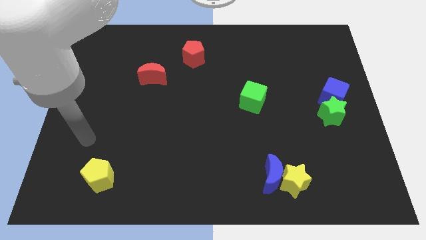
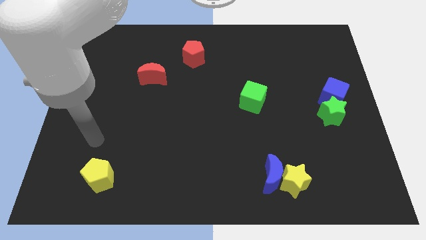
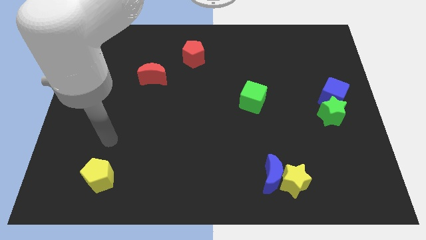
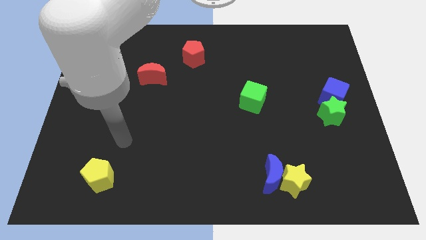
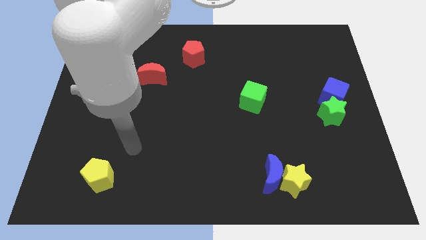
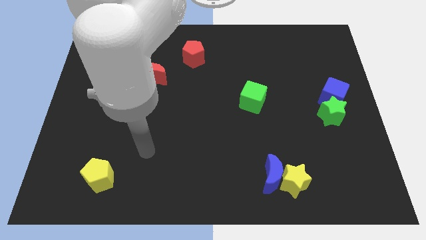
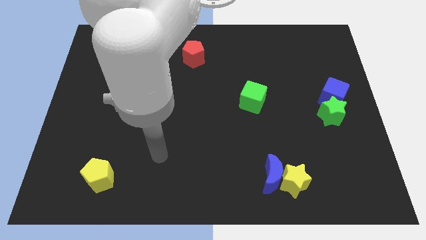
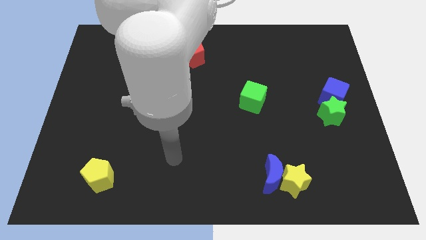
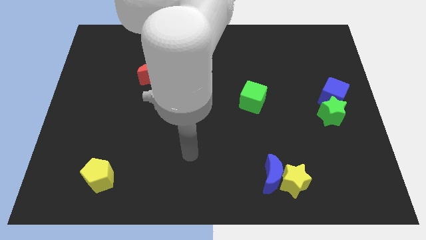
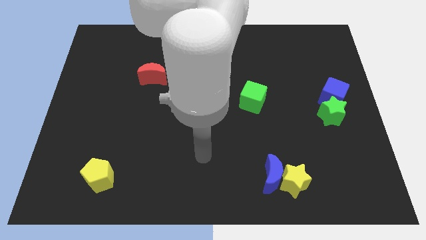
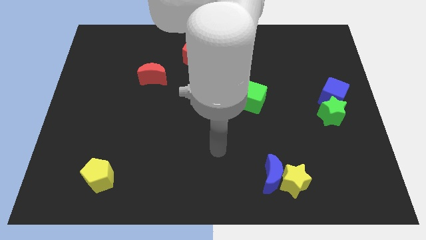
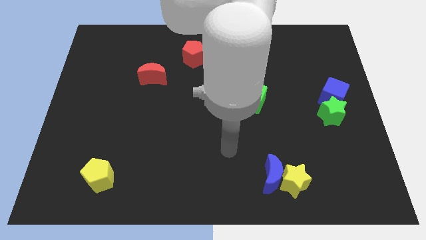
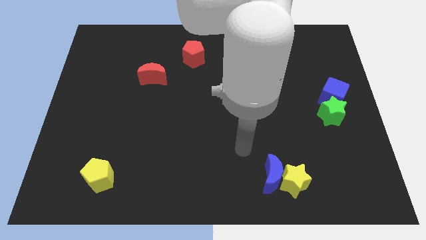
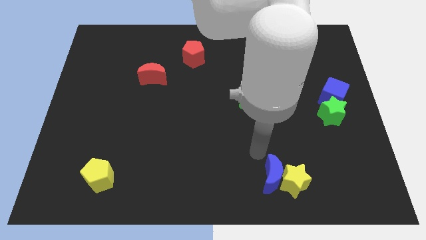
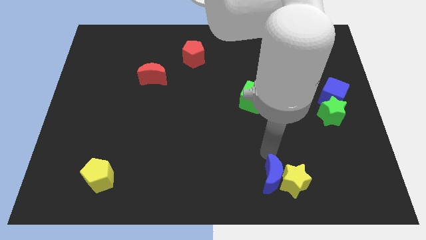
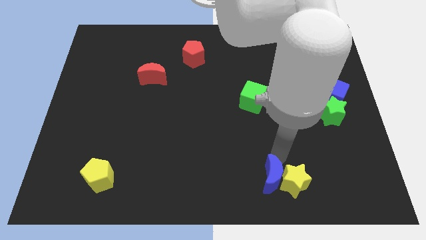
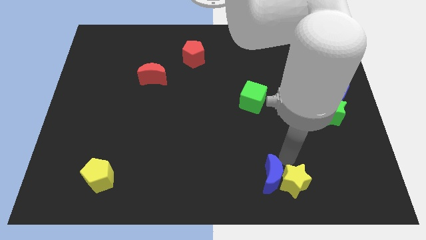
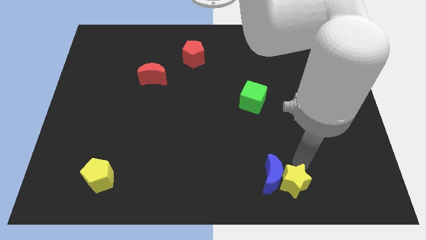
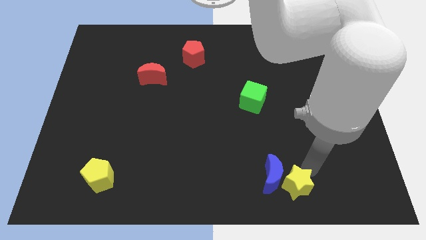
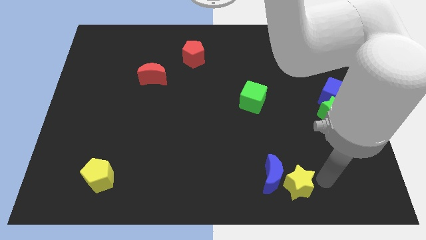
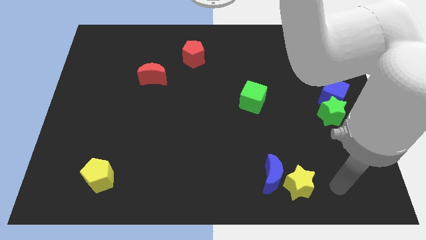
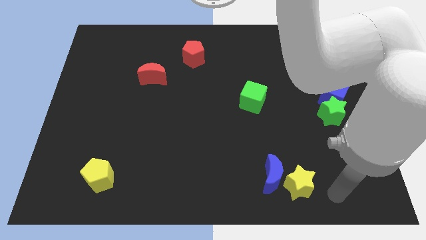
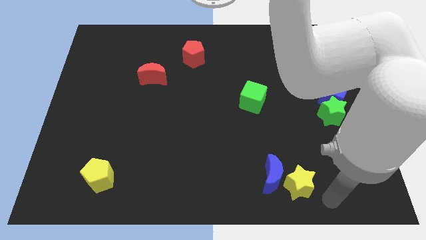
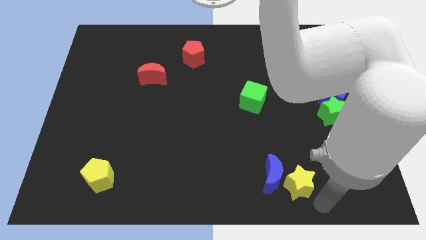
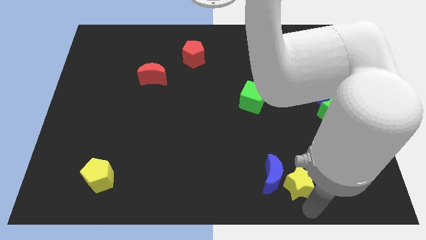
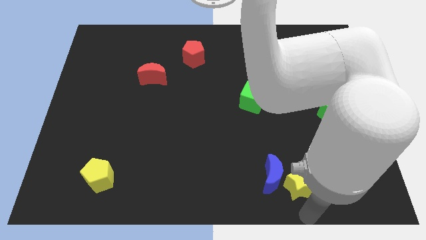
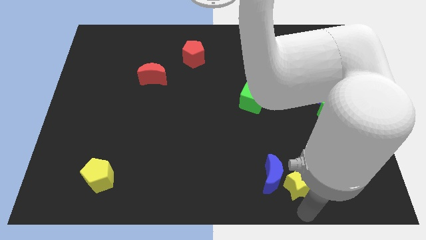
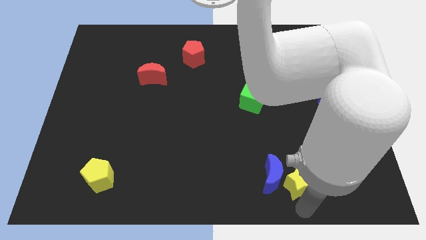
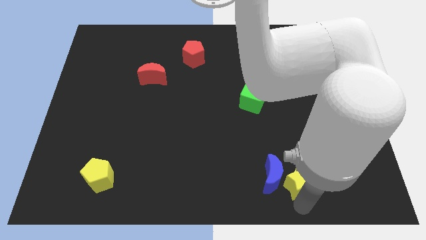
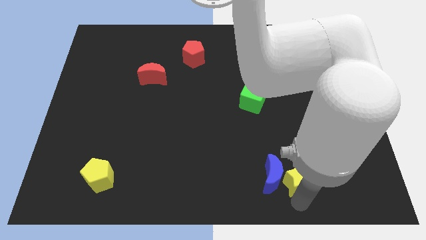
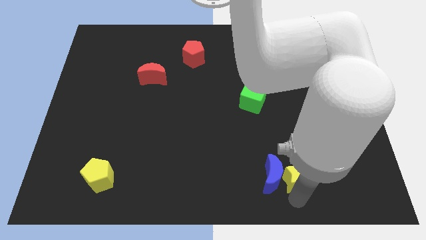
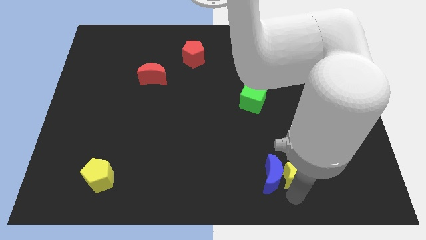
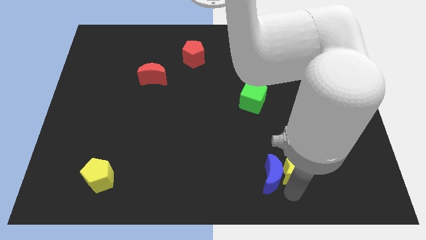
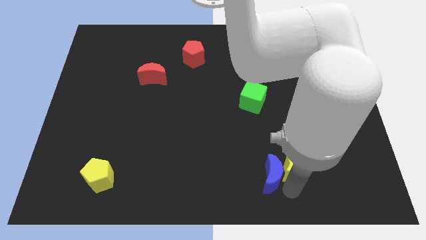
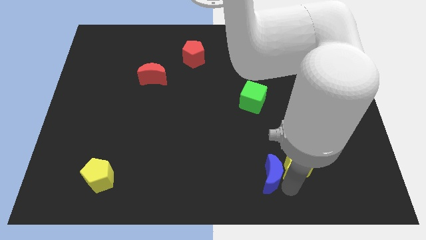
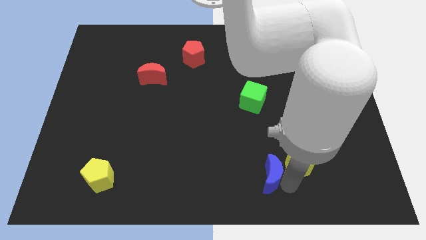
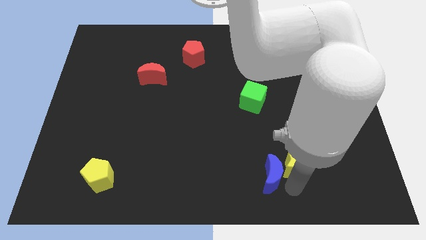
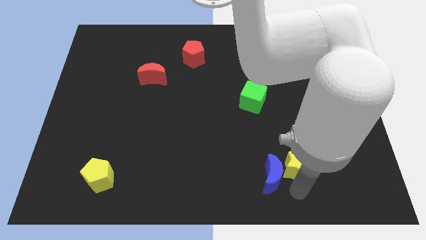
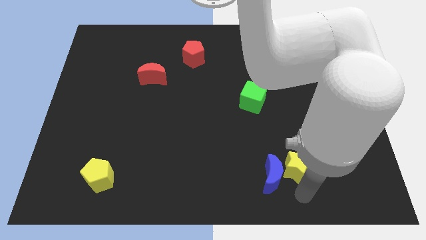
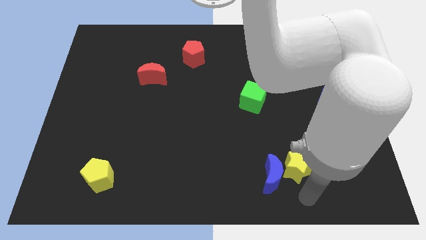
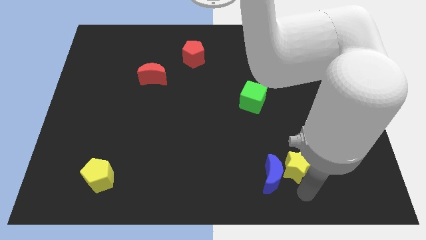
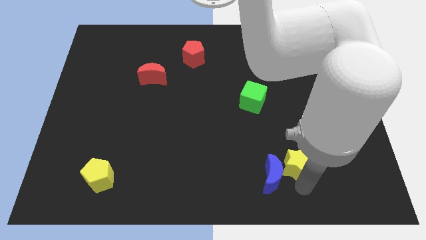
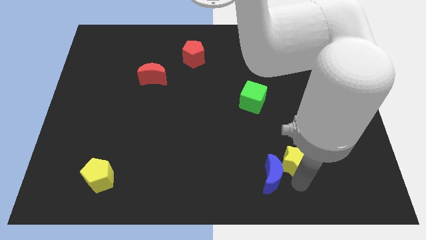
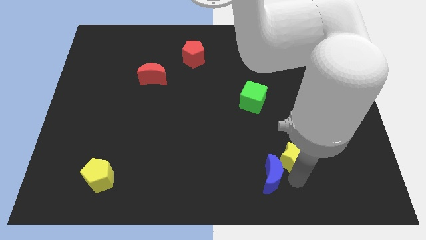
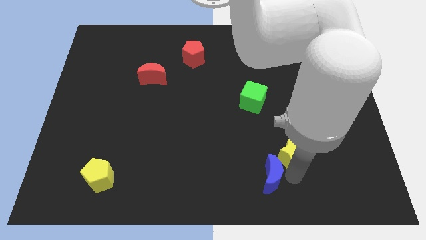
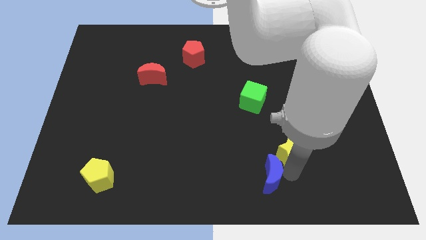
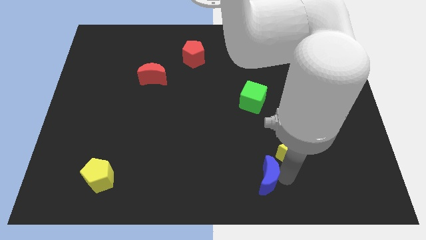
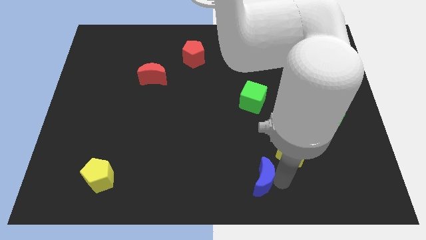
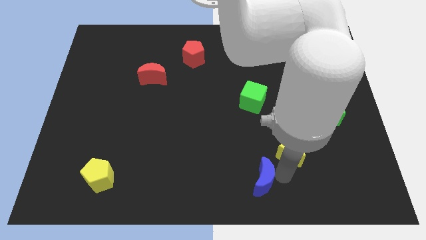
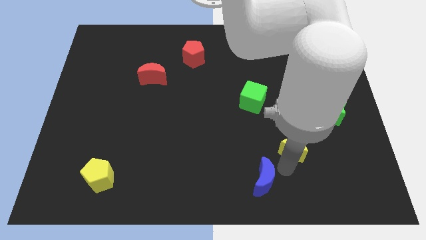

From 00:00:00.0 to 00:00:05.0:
push the yellow star slightly up

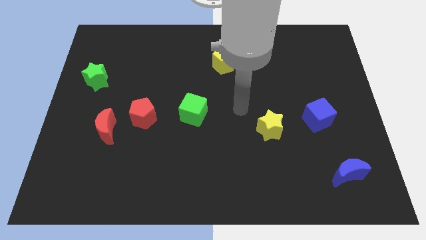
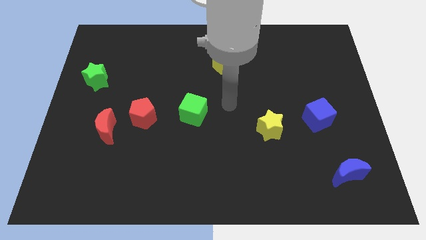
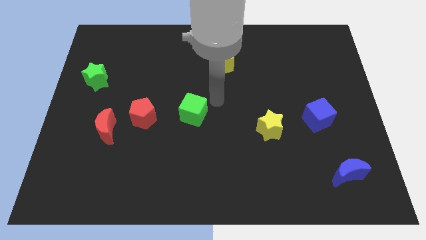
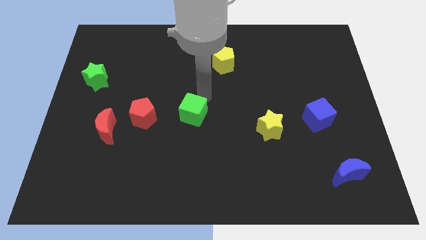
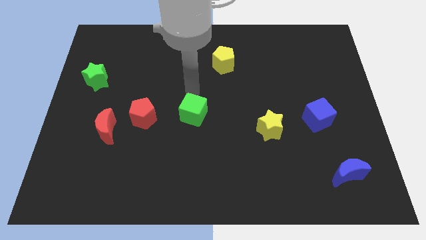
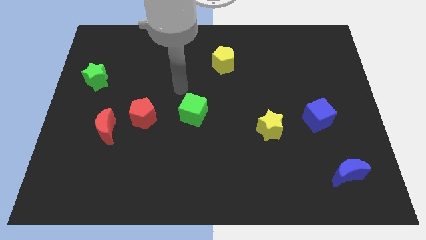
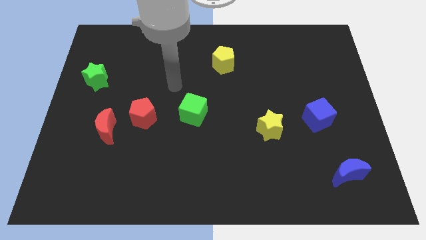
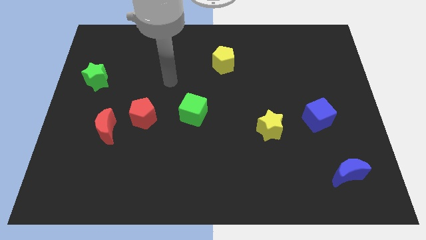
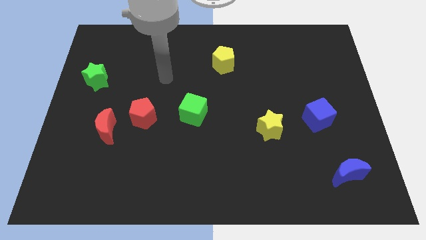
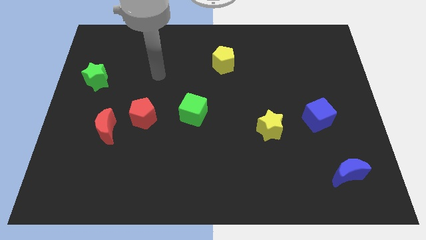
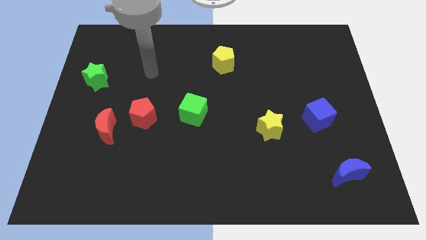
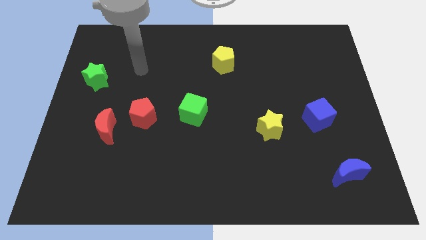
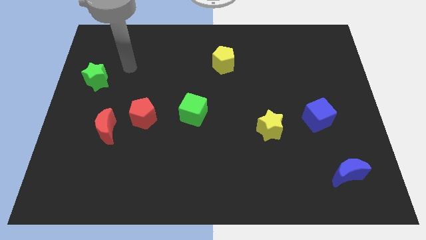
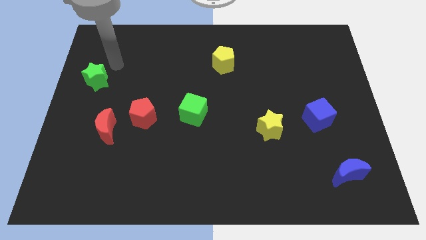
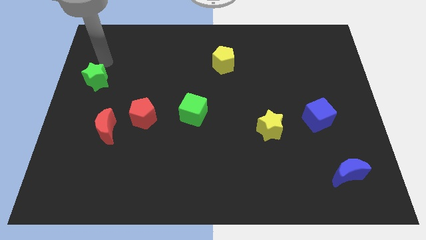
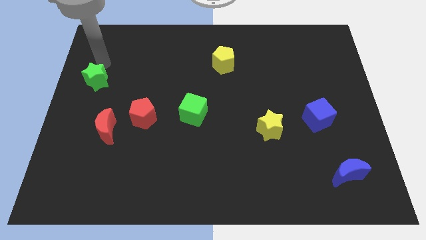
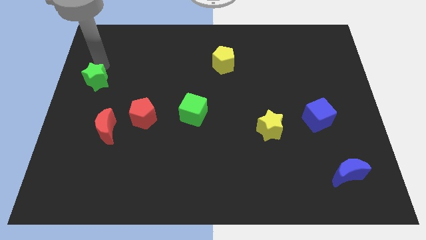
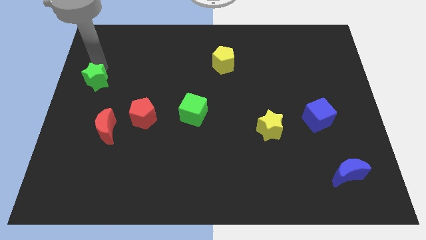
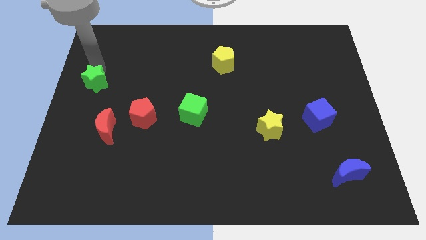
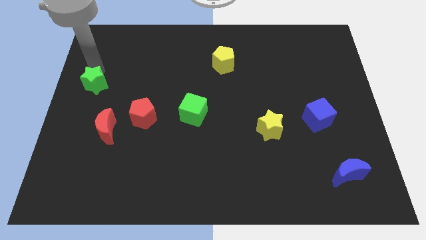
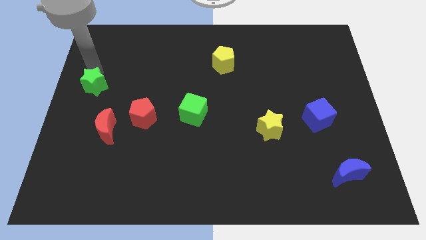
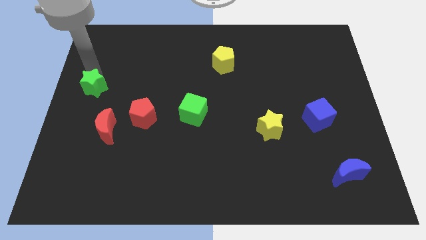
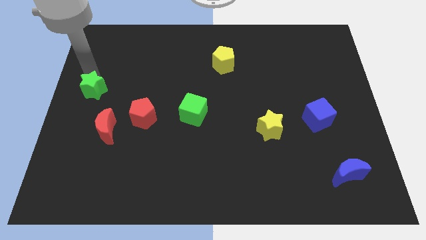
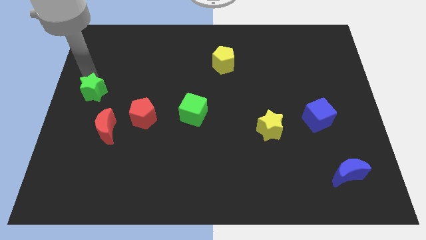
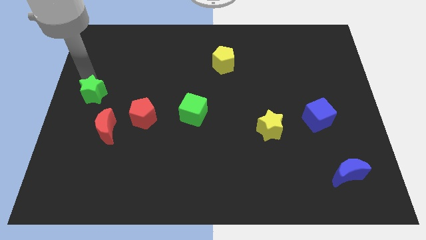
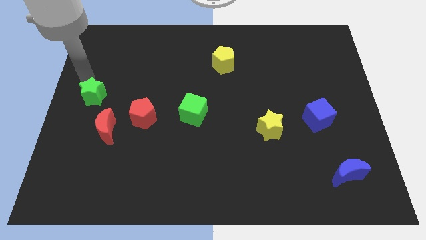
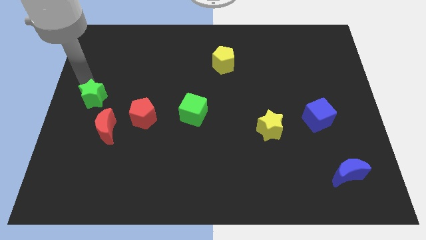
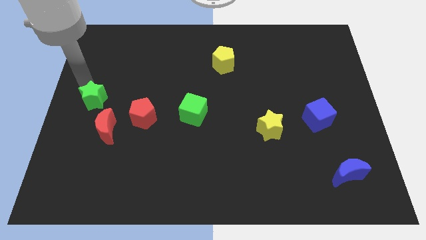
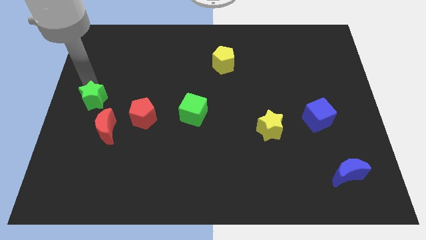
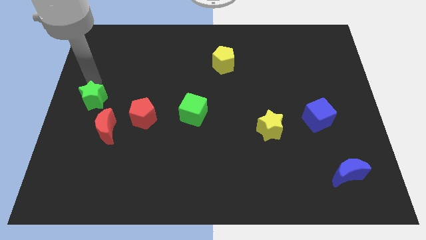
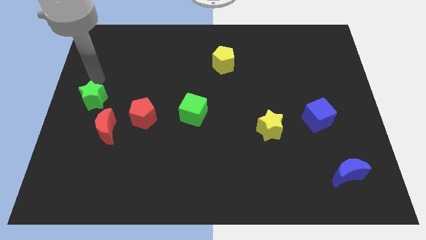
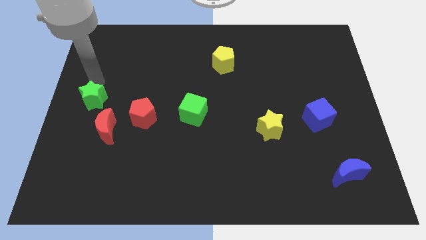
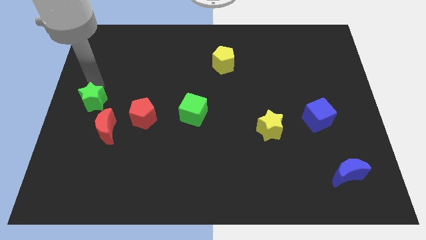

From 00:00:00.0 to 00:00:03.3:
slightly move the green star down
